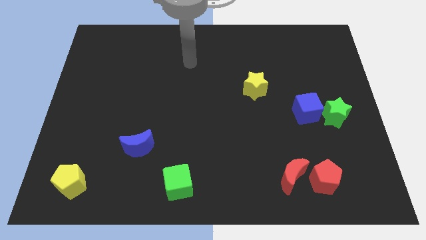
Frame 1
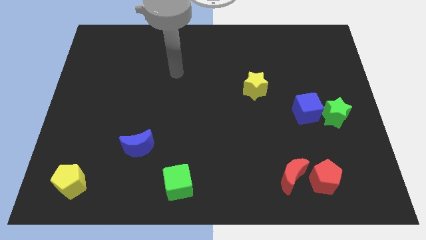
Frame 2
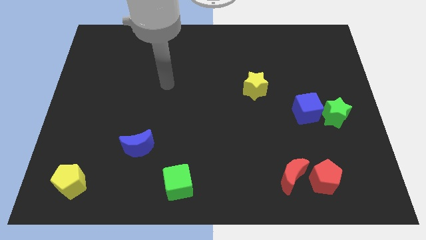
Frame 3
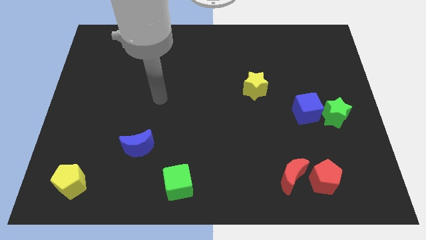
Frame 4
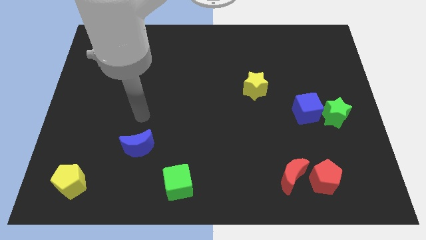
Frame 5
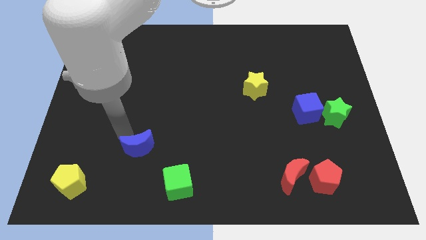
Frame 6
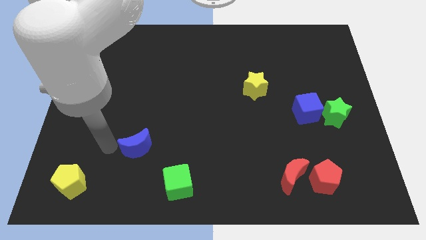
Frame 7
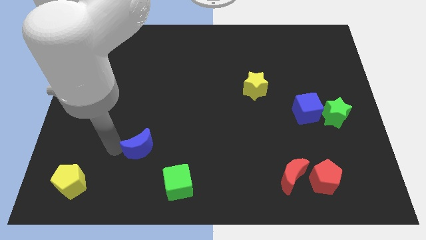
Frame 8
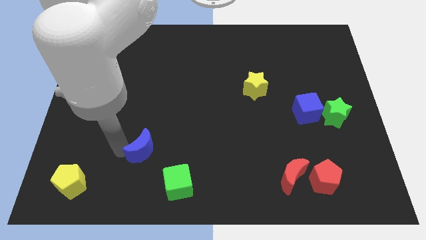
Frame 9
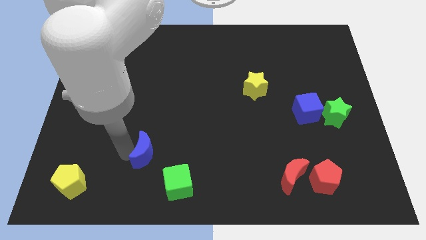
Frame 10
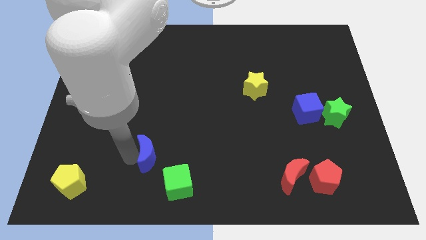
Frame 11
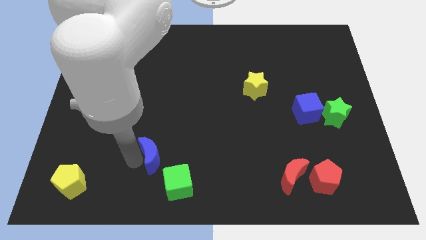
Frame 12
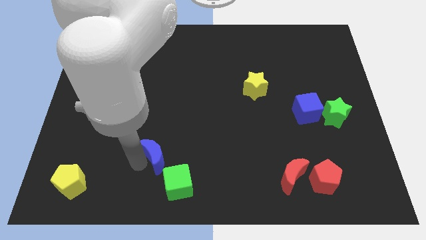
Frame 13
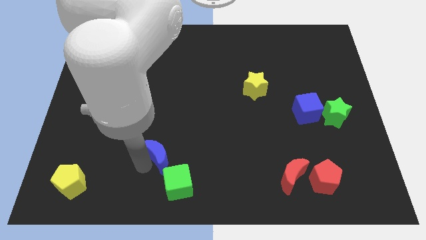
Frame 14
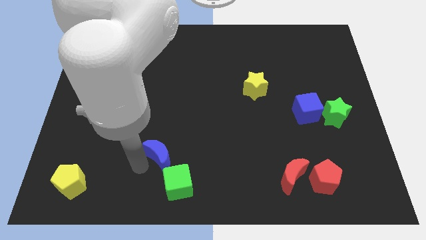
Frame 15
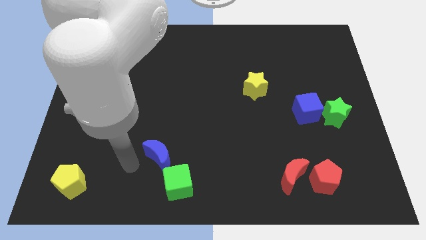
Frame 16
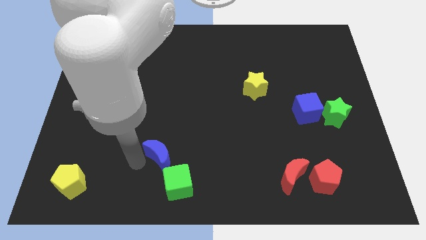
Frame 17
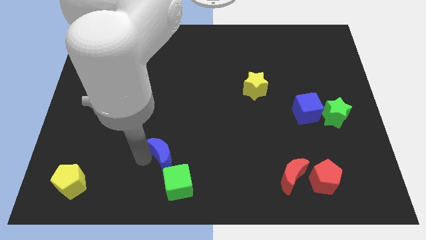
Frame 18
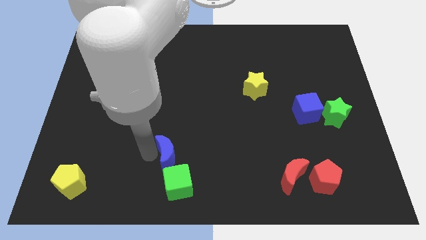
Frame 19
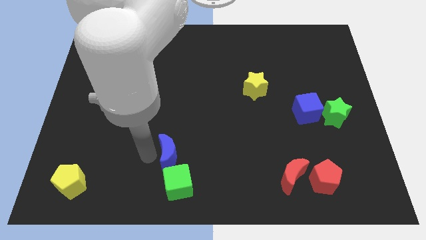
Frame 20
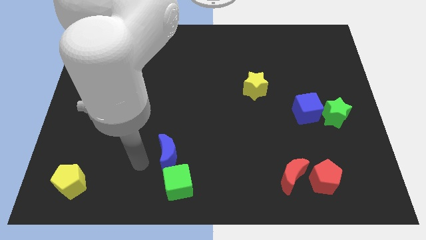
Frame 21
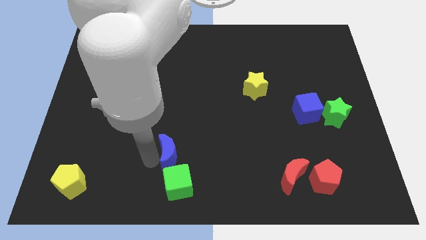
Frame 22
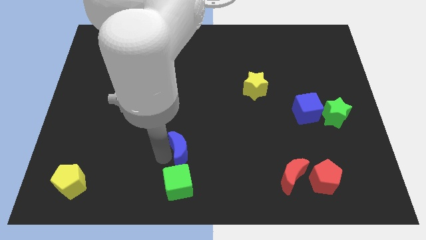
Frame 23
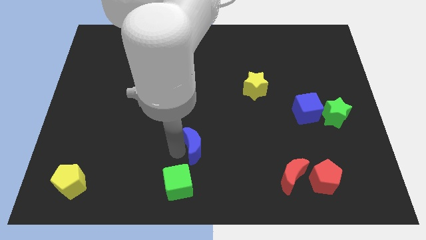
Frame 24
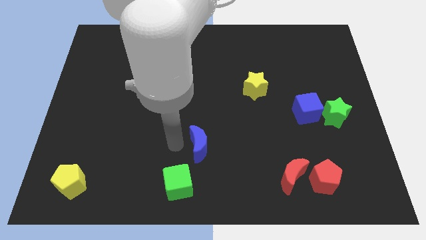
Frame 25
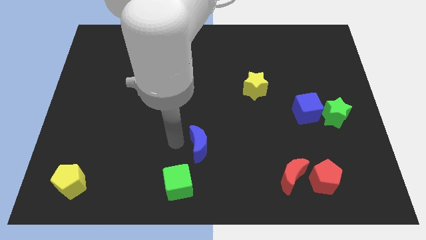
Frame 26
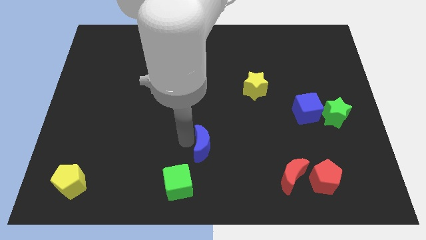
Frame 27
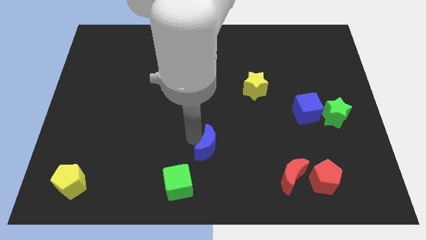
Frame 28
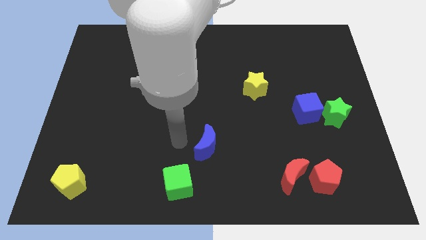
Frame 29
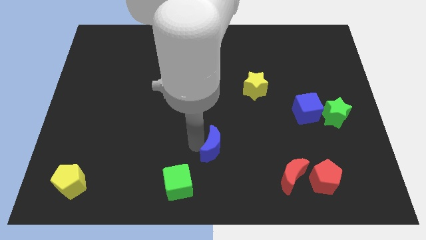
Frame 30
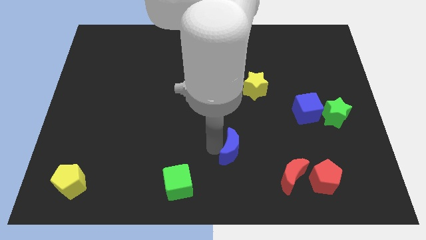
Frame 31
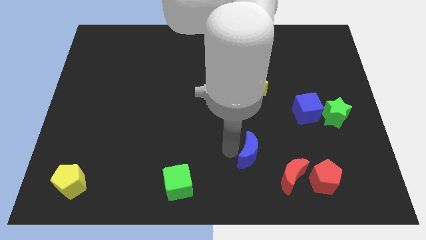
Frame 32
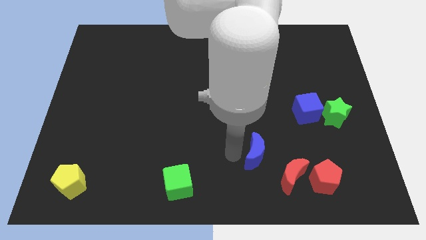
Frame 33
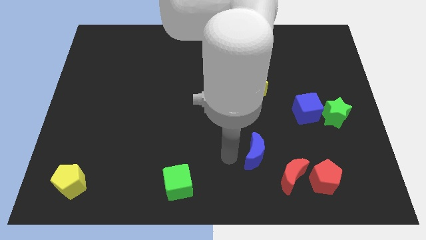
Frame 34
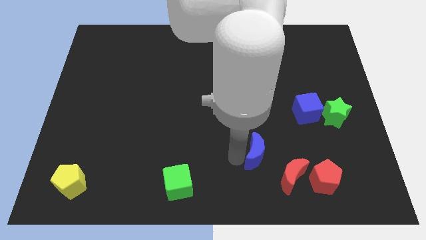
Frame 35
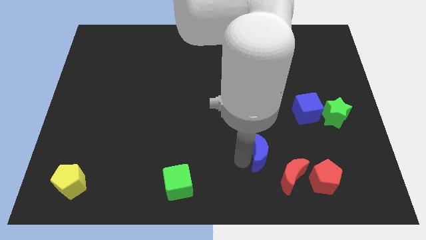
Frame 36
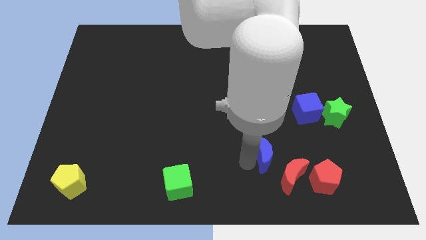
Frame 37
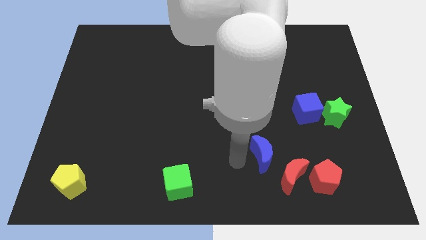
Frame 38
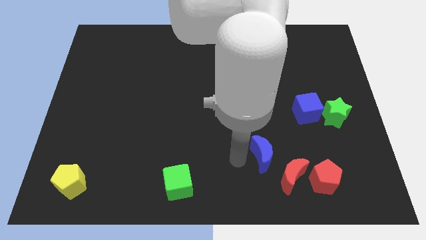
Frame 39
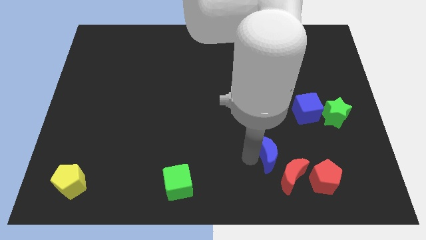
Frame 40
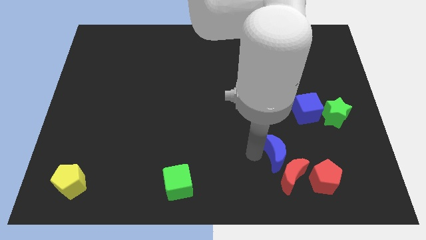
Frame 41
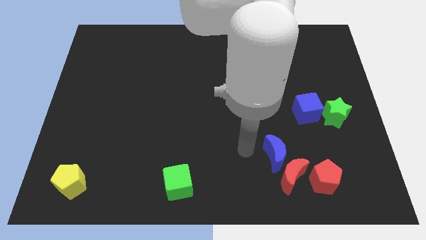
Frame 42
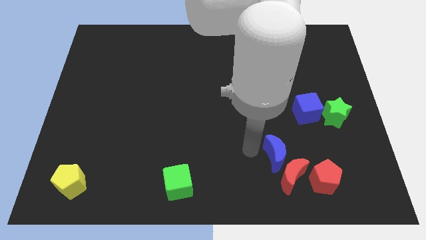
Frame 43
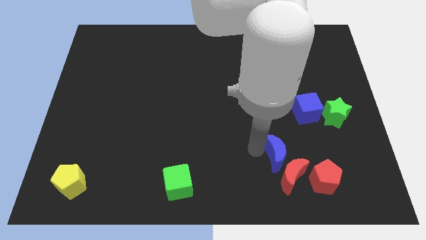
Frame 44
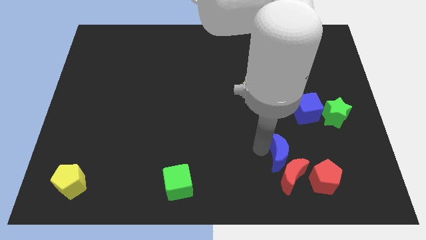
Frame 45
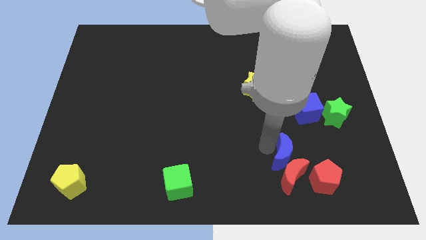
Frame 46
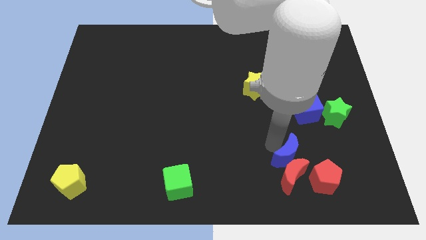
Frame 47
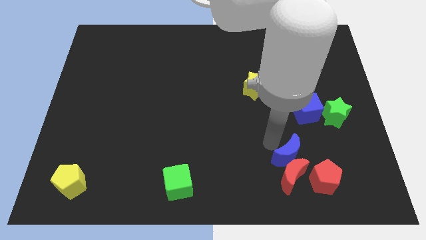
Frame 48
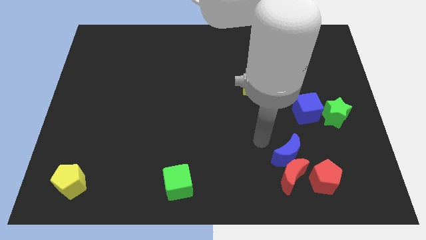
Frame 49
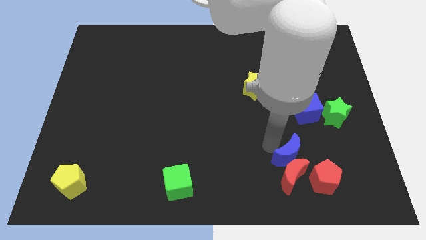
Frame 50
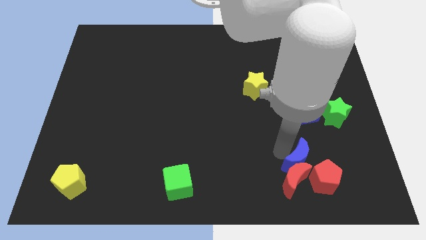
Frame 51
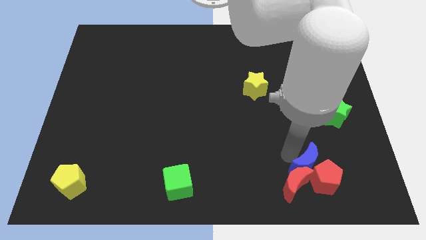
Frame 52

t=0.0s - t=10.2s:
push the blue moon next to the red pentagon

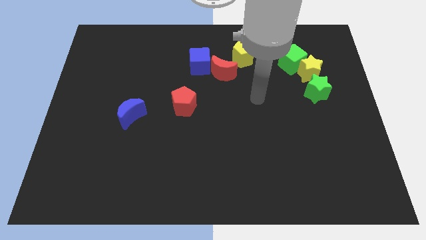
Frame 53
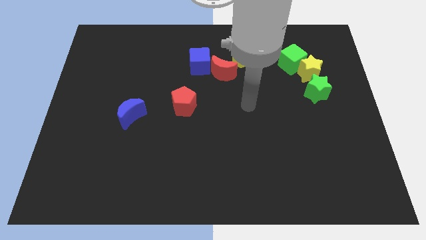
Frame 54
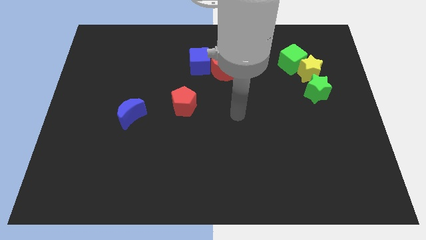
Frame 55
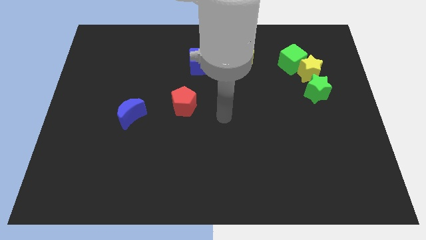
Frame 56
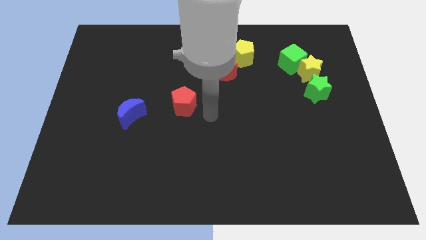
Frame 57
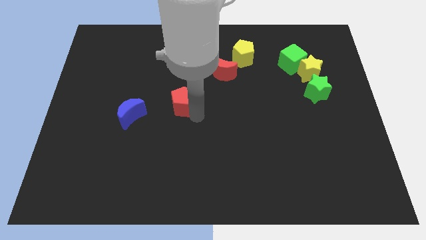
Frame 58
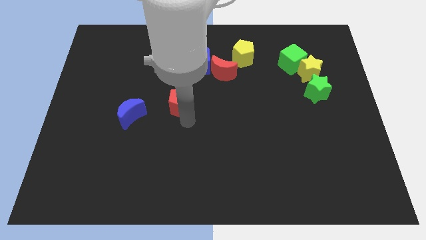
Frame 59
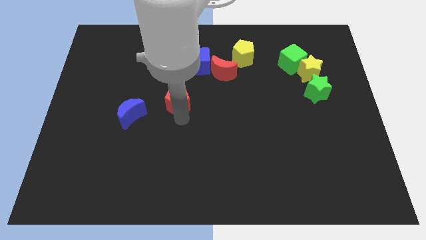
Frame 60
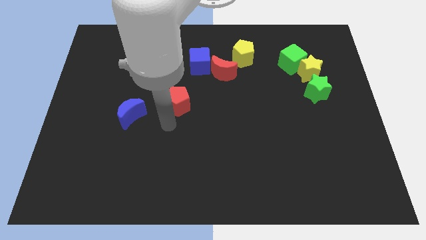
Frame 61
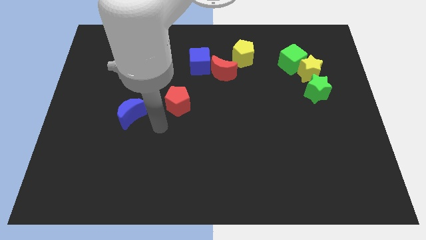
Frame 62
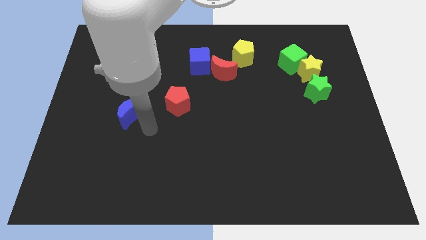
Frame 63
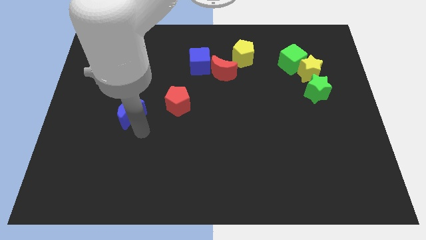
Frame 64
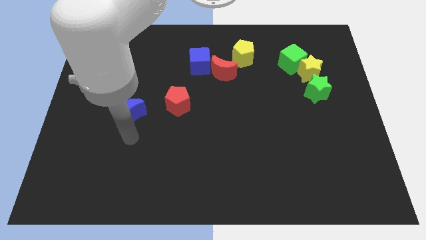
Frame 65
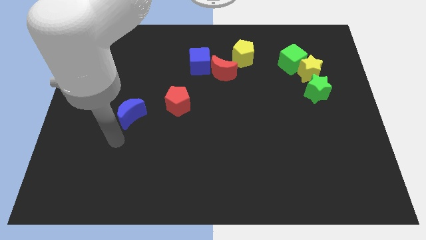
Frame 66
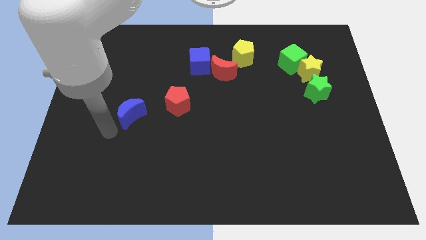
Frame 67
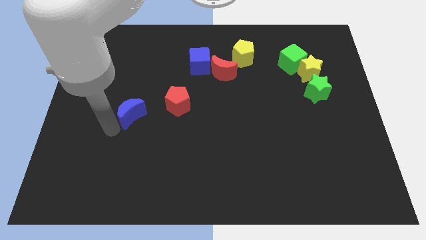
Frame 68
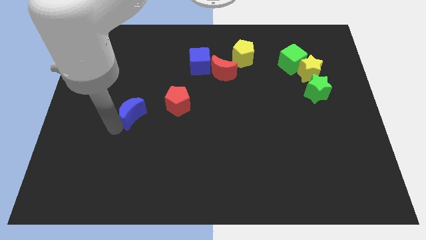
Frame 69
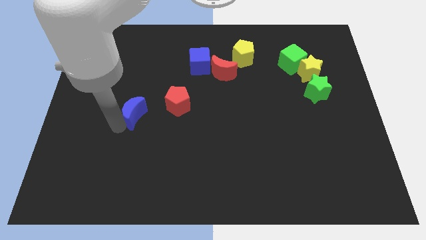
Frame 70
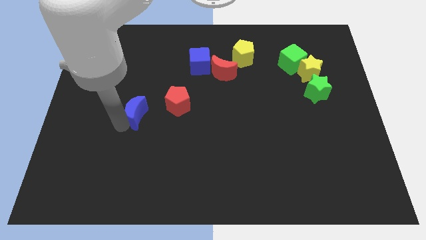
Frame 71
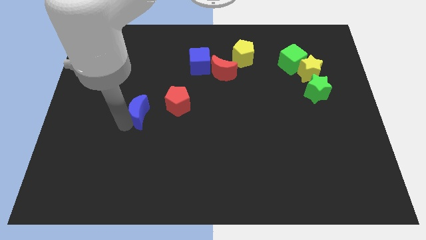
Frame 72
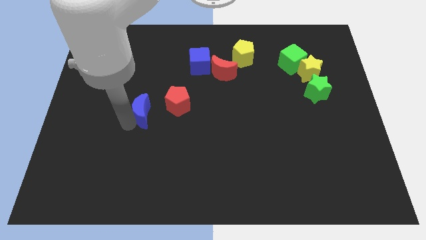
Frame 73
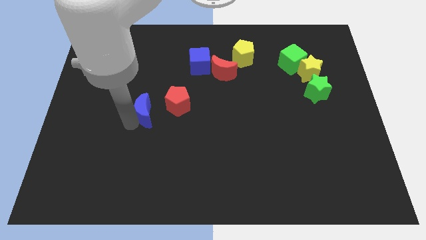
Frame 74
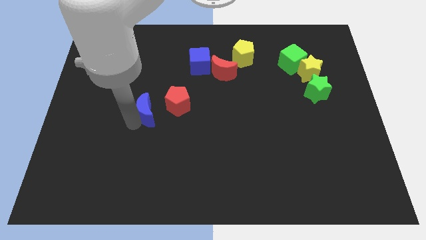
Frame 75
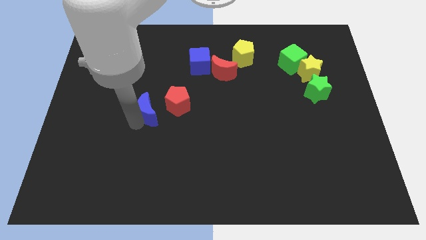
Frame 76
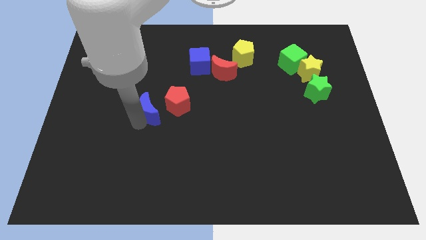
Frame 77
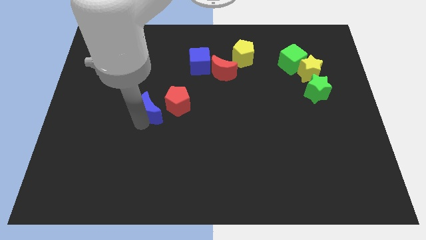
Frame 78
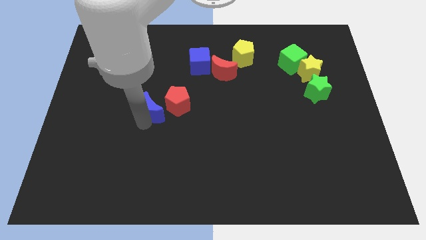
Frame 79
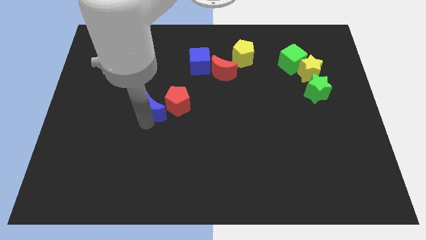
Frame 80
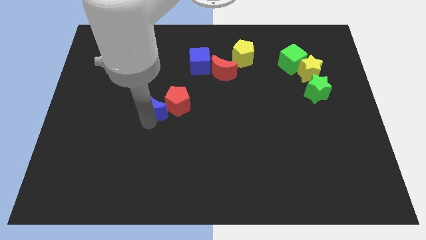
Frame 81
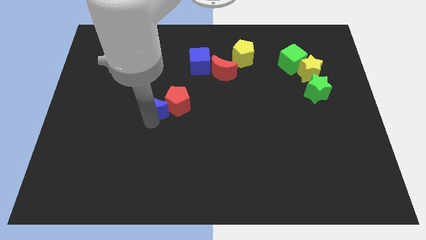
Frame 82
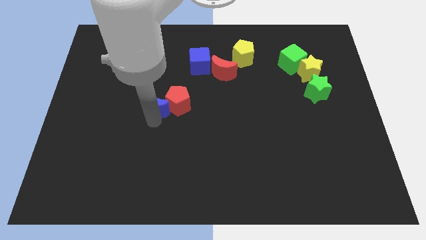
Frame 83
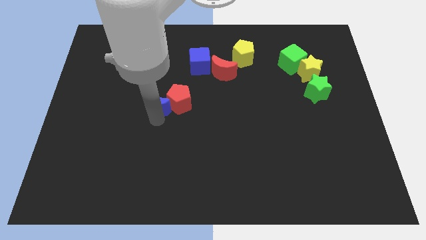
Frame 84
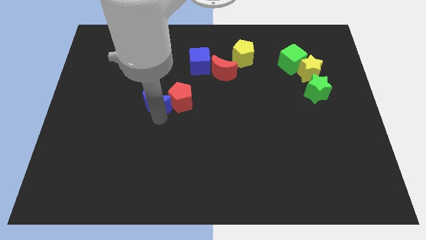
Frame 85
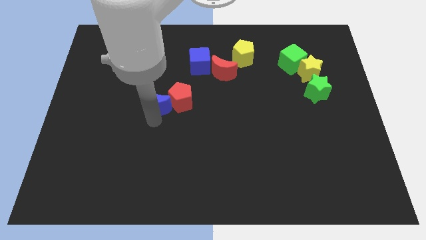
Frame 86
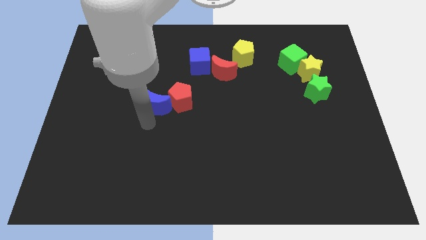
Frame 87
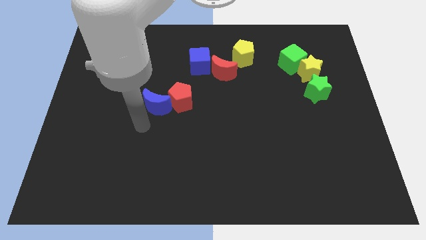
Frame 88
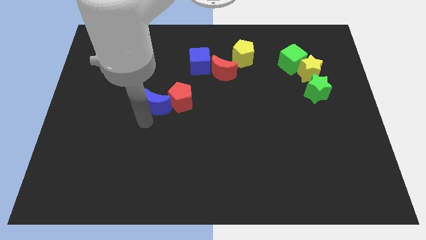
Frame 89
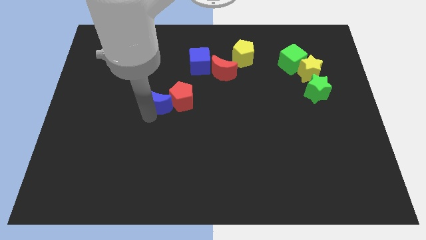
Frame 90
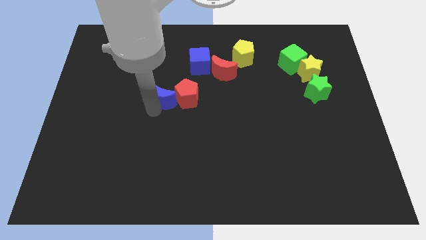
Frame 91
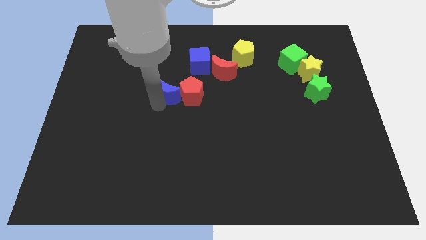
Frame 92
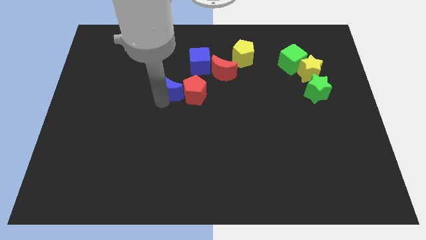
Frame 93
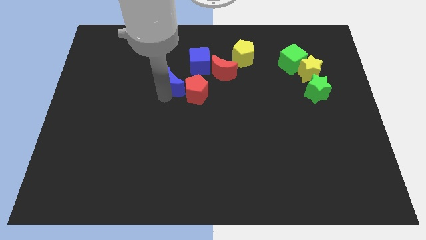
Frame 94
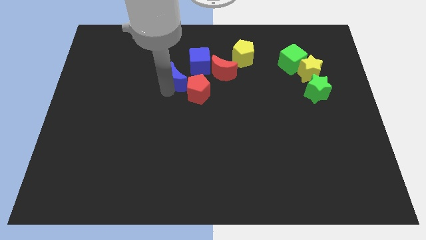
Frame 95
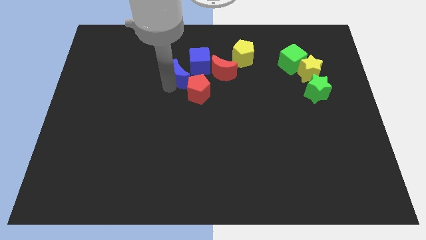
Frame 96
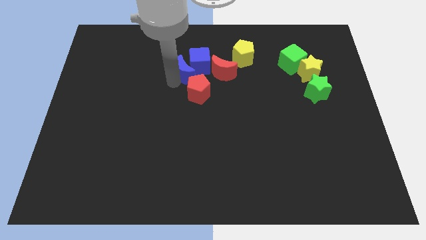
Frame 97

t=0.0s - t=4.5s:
put the blue moon to the blue cube
